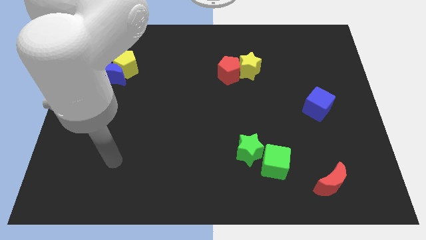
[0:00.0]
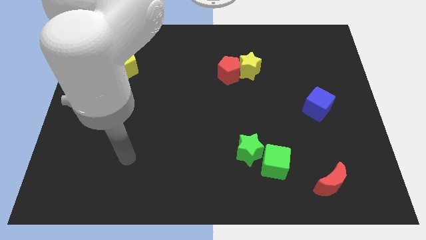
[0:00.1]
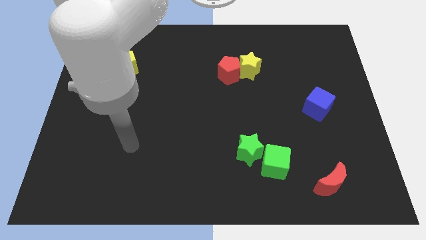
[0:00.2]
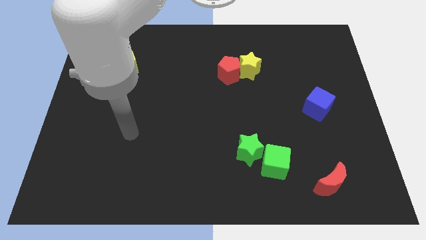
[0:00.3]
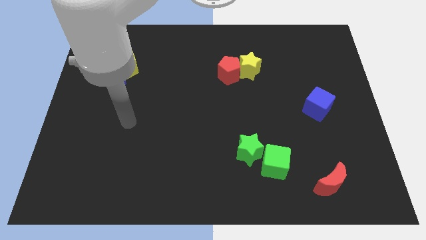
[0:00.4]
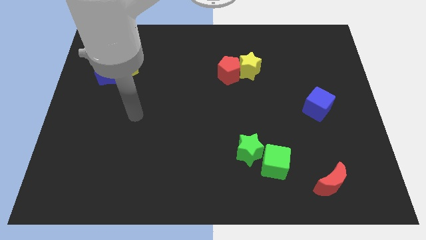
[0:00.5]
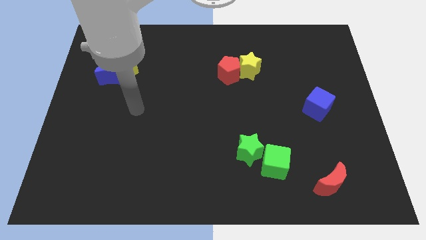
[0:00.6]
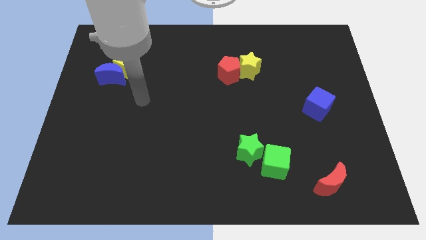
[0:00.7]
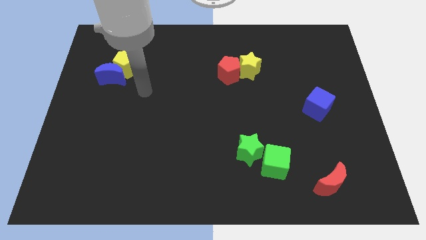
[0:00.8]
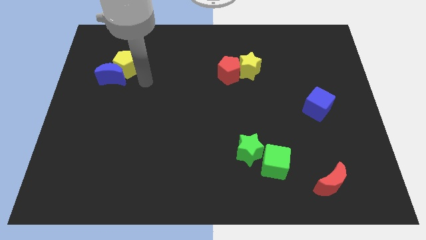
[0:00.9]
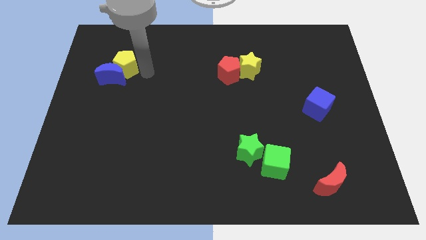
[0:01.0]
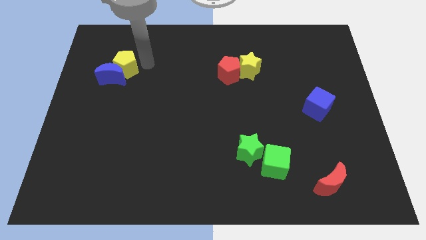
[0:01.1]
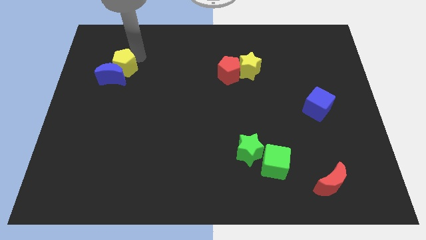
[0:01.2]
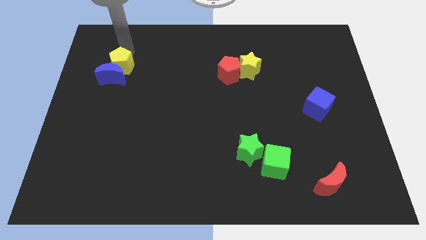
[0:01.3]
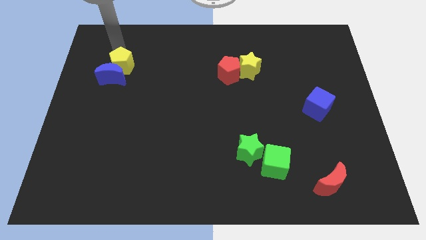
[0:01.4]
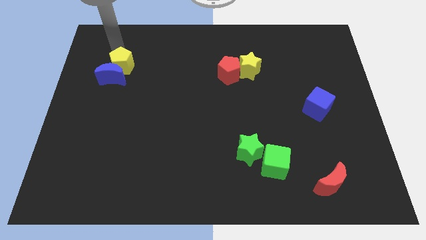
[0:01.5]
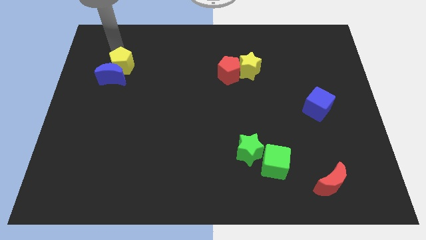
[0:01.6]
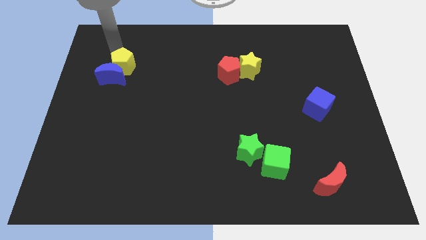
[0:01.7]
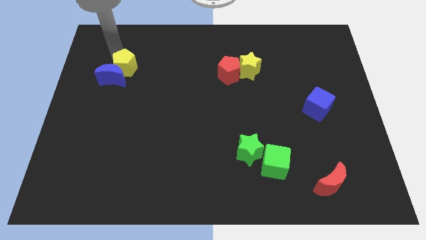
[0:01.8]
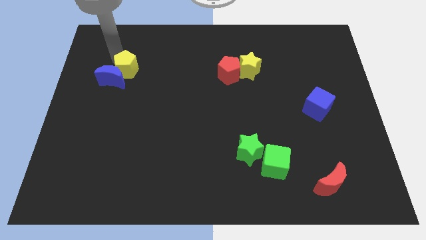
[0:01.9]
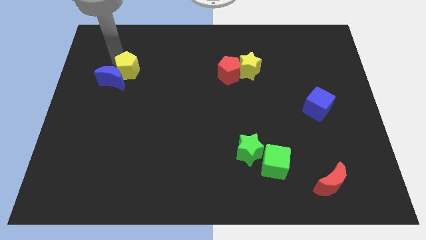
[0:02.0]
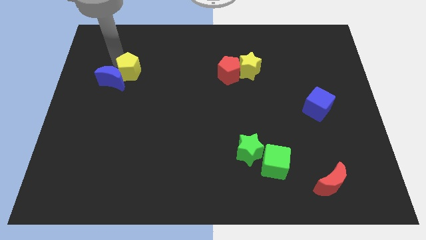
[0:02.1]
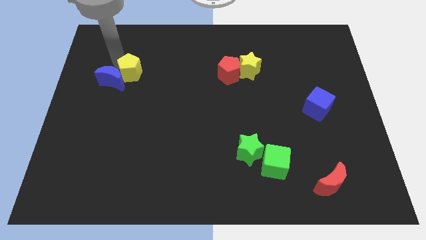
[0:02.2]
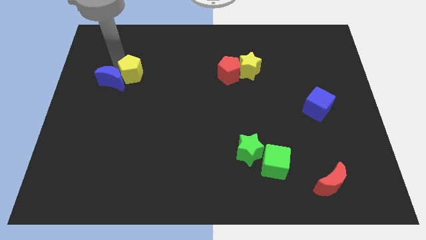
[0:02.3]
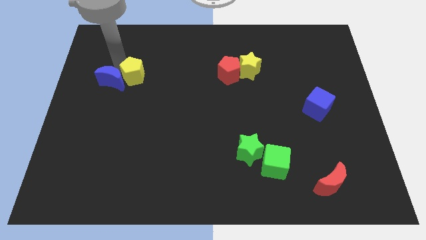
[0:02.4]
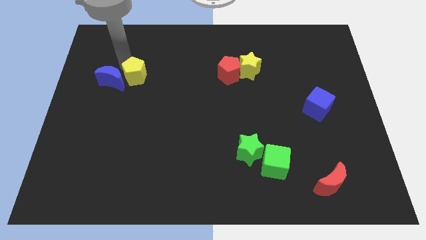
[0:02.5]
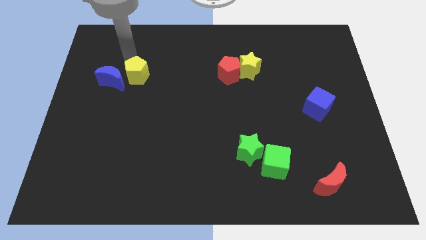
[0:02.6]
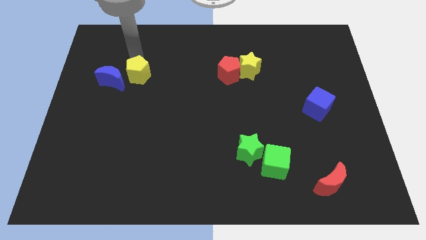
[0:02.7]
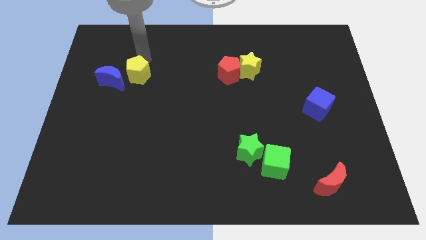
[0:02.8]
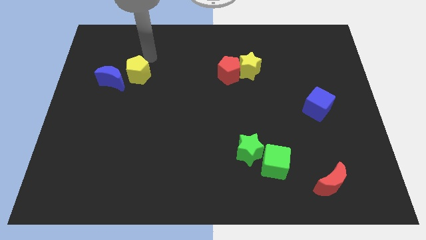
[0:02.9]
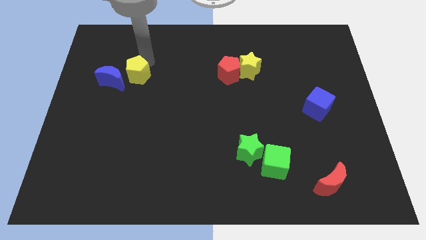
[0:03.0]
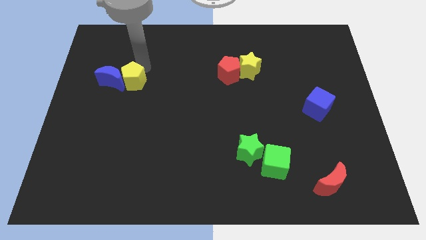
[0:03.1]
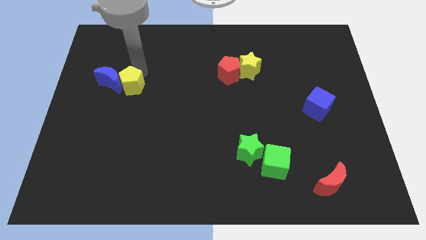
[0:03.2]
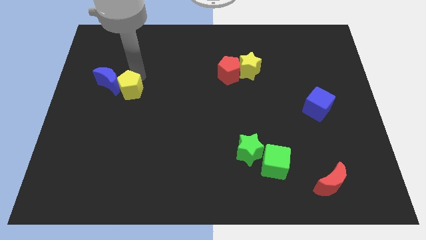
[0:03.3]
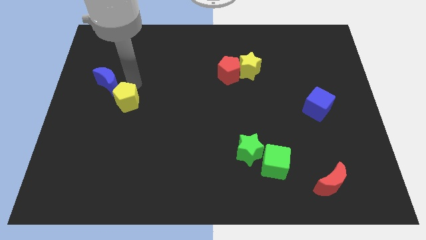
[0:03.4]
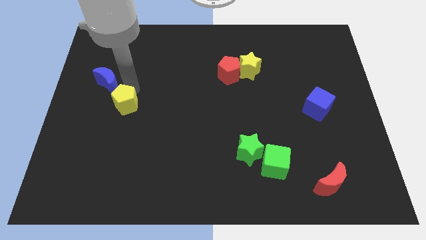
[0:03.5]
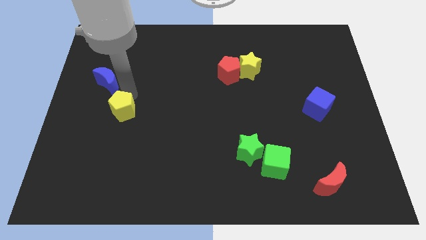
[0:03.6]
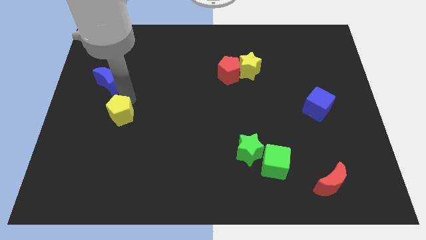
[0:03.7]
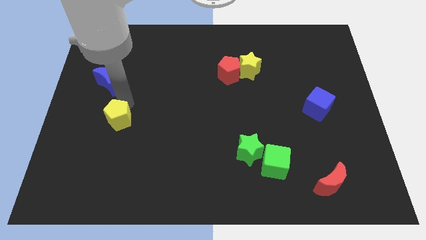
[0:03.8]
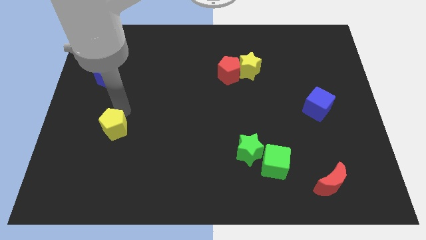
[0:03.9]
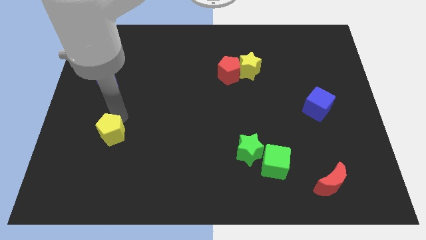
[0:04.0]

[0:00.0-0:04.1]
move the yellow pentagon down

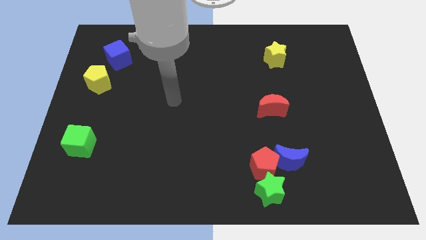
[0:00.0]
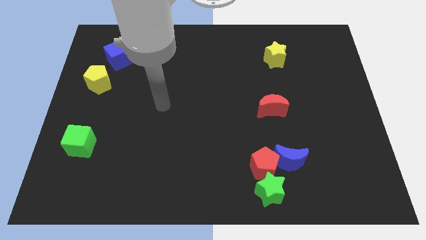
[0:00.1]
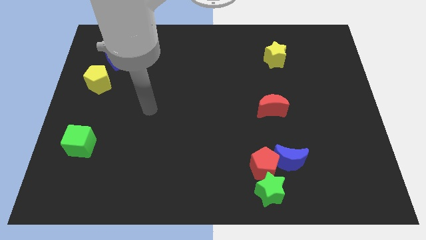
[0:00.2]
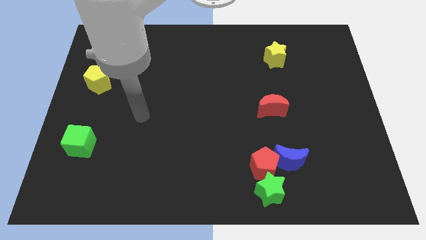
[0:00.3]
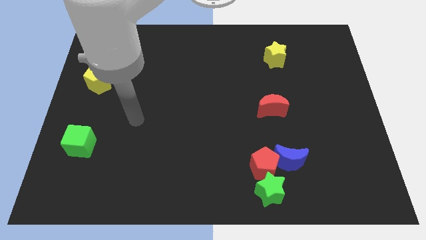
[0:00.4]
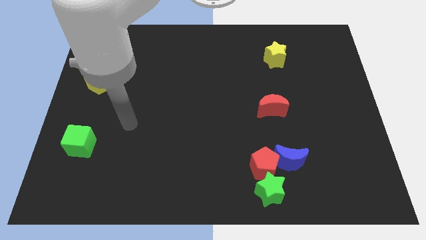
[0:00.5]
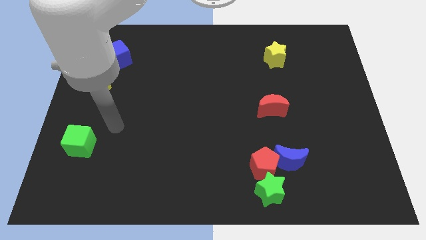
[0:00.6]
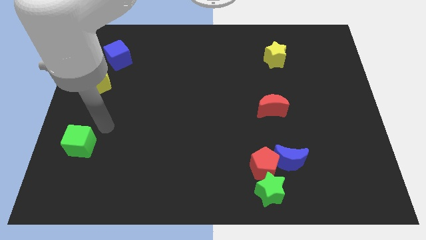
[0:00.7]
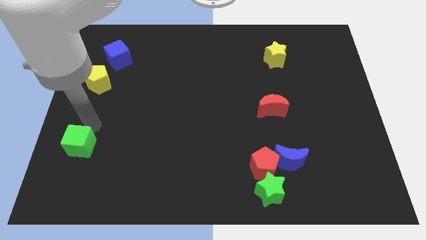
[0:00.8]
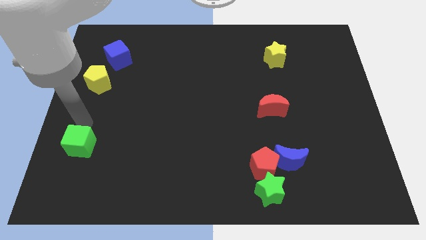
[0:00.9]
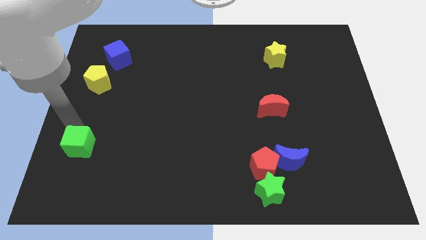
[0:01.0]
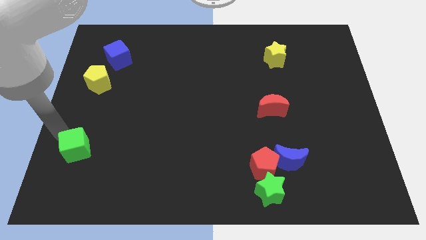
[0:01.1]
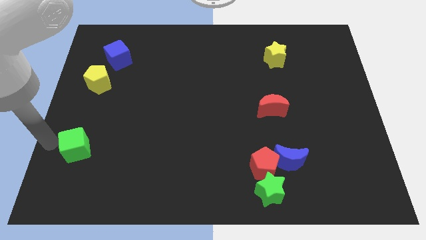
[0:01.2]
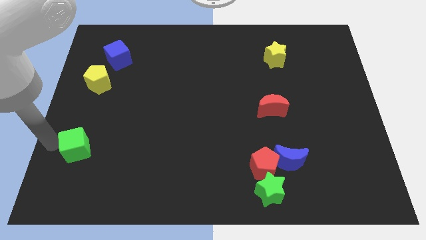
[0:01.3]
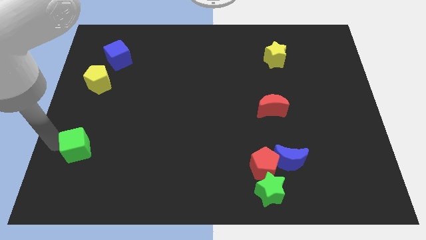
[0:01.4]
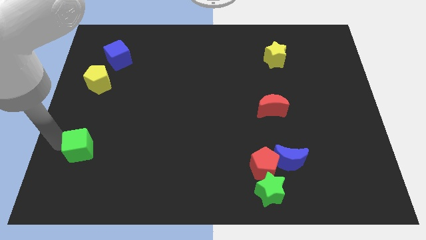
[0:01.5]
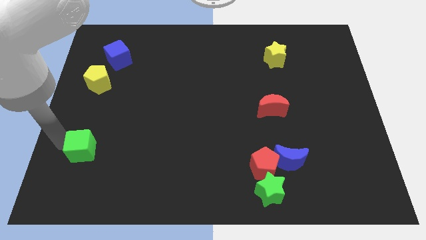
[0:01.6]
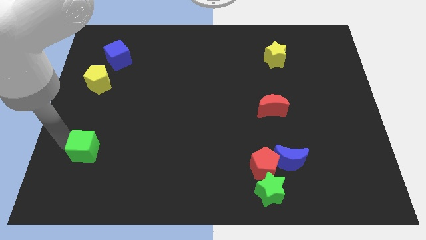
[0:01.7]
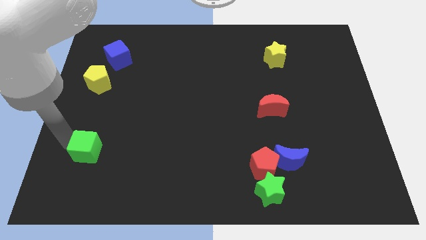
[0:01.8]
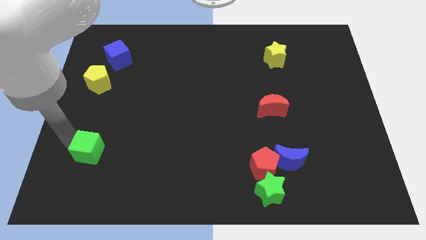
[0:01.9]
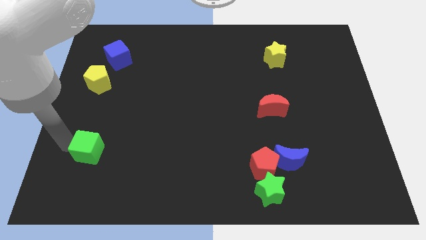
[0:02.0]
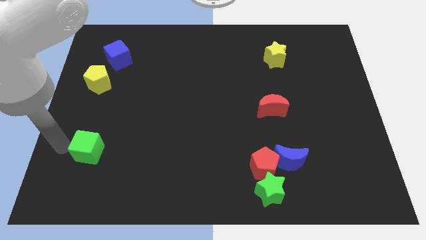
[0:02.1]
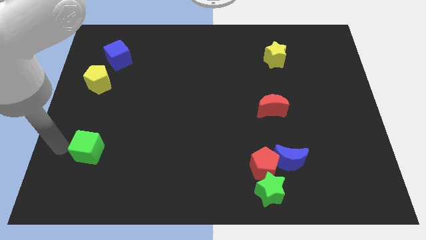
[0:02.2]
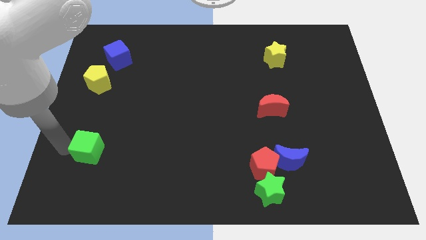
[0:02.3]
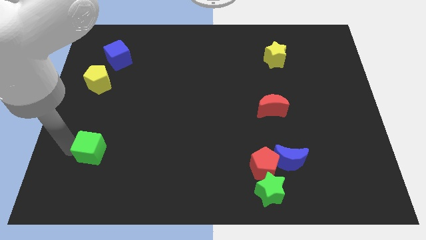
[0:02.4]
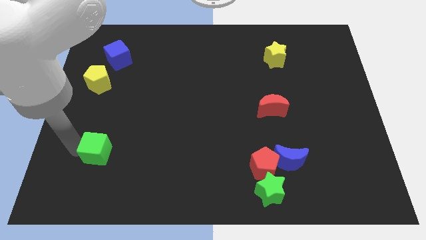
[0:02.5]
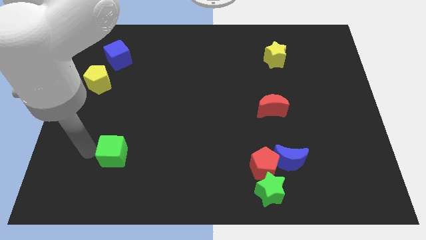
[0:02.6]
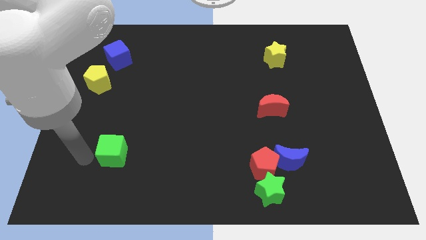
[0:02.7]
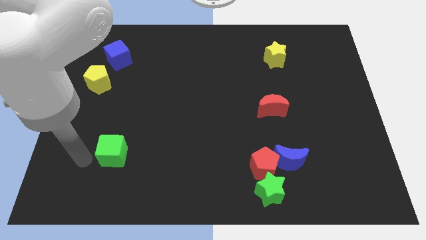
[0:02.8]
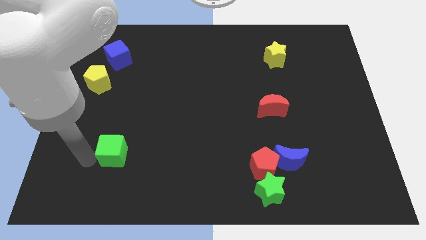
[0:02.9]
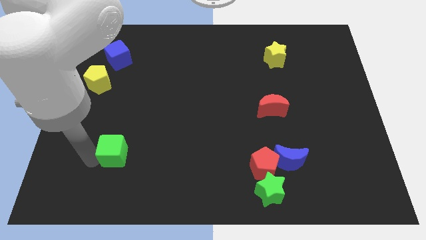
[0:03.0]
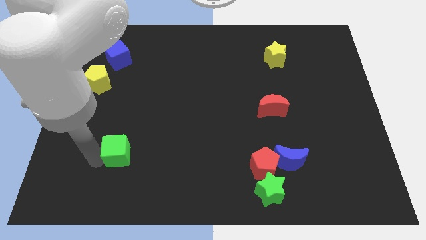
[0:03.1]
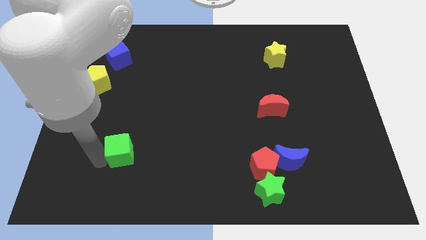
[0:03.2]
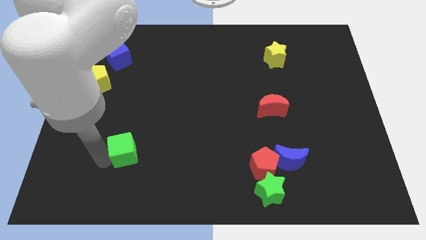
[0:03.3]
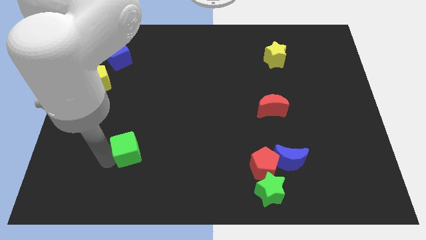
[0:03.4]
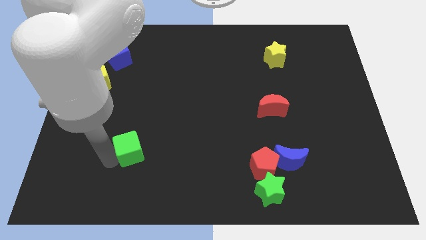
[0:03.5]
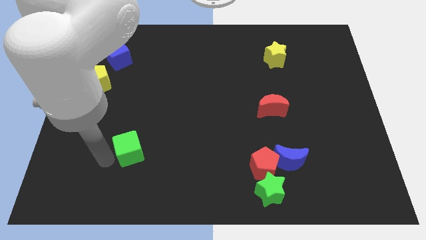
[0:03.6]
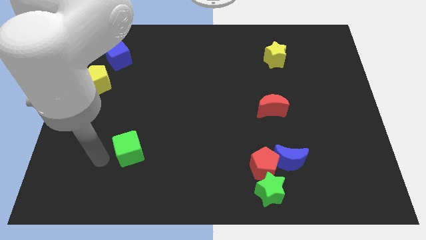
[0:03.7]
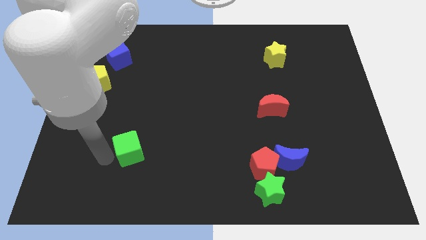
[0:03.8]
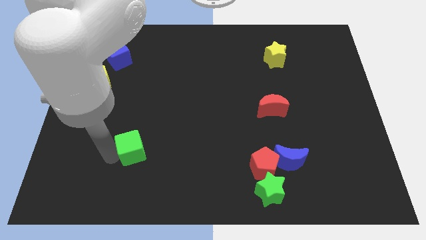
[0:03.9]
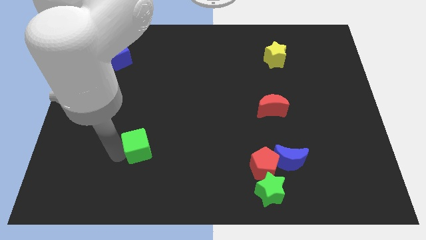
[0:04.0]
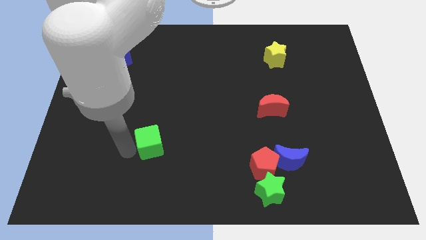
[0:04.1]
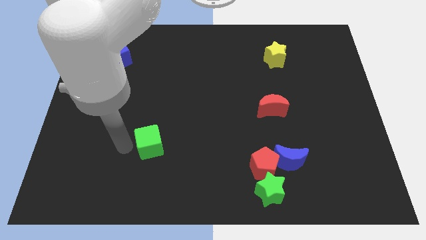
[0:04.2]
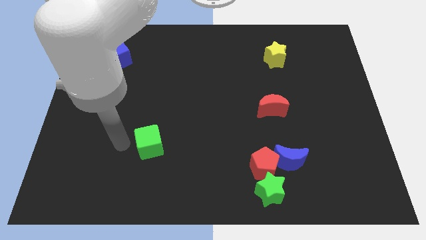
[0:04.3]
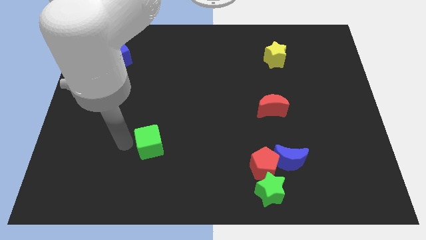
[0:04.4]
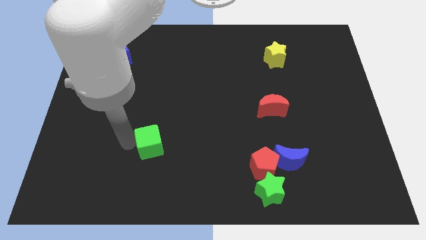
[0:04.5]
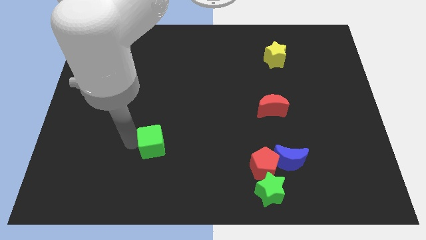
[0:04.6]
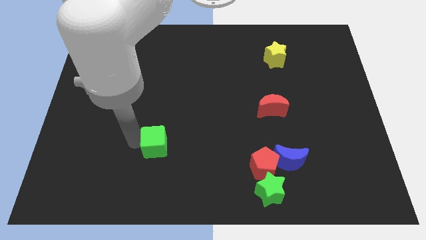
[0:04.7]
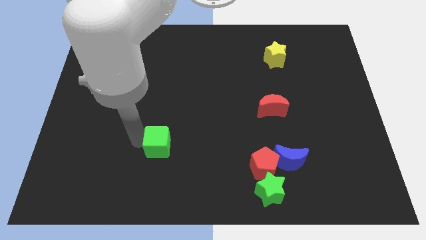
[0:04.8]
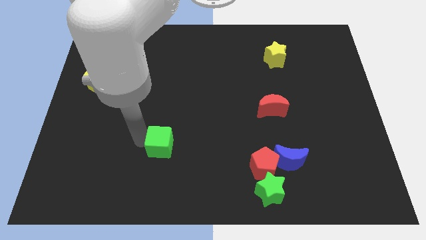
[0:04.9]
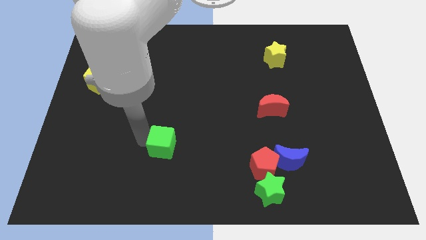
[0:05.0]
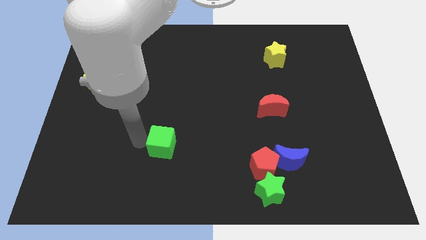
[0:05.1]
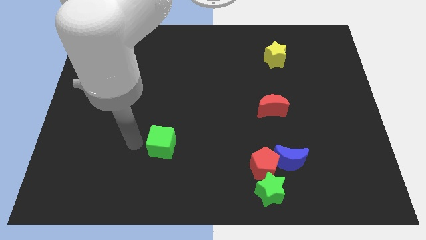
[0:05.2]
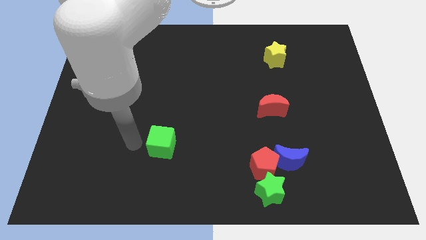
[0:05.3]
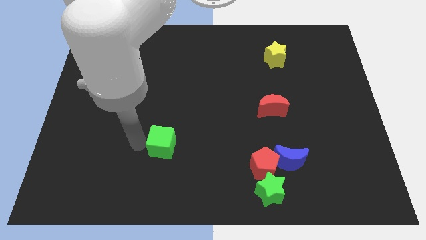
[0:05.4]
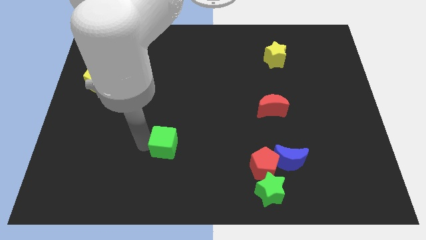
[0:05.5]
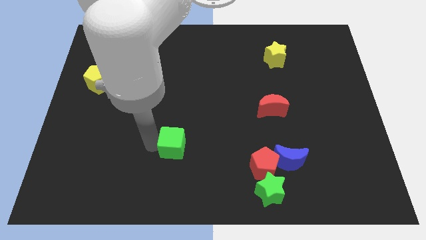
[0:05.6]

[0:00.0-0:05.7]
move the green cube right
